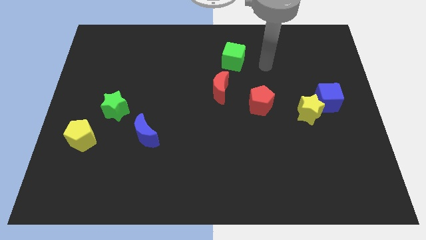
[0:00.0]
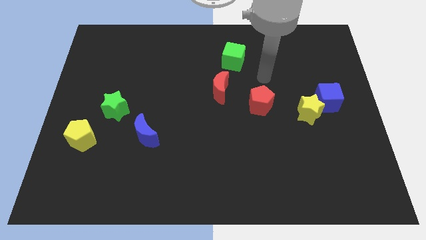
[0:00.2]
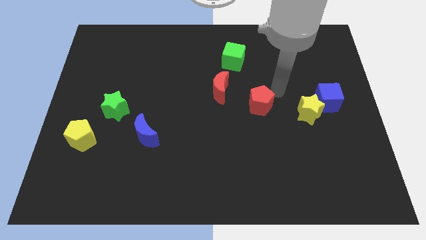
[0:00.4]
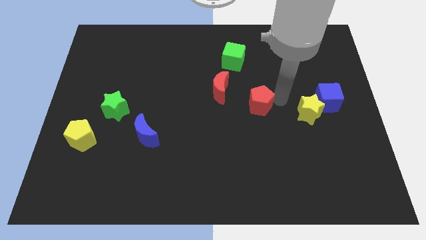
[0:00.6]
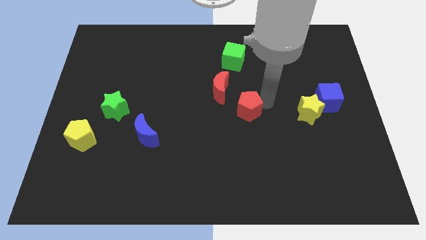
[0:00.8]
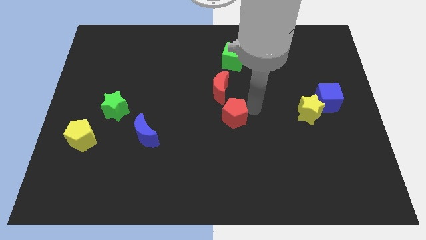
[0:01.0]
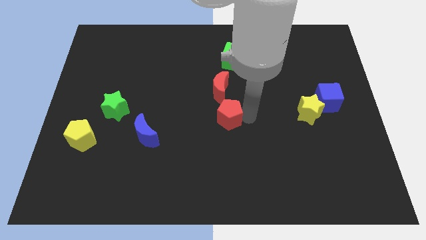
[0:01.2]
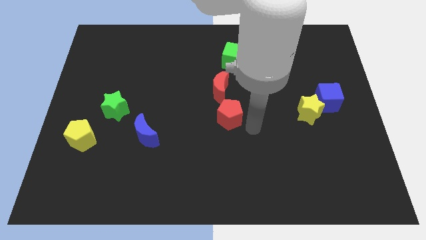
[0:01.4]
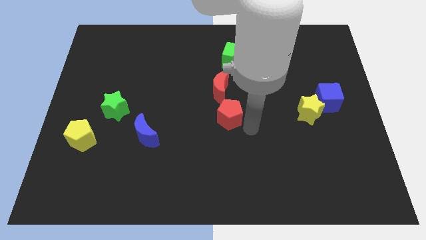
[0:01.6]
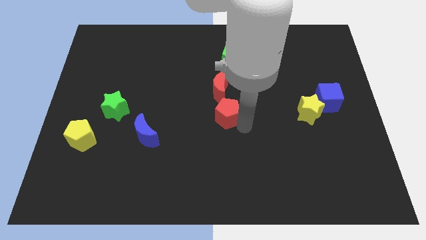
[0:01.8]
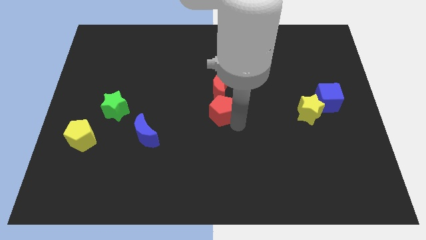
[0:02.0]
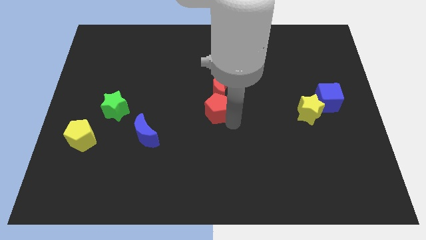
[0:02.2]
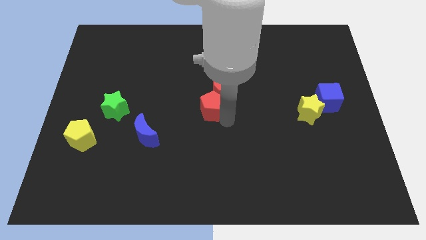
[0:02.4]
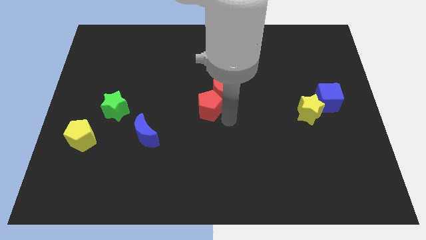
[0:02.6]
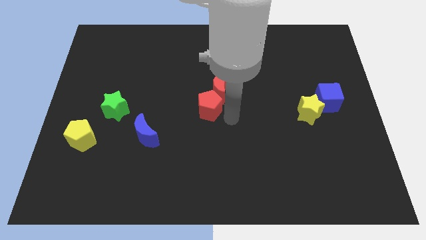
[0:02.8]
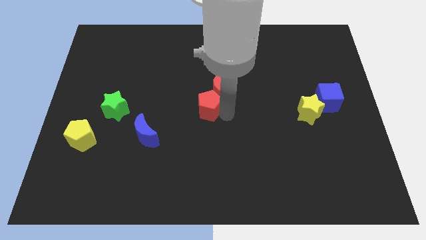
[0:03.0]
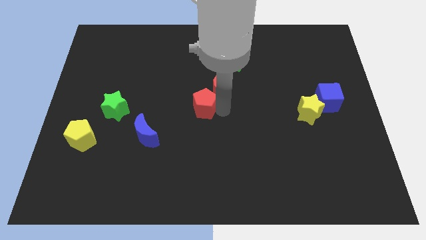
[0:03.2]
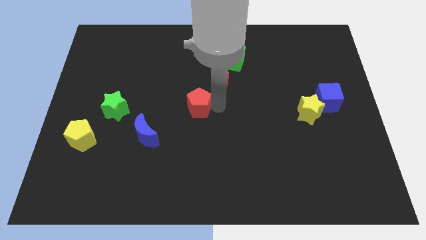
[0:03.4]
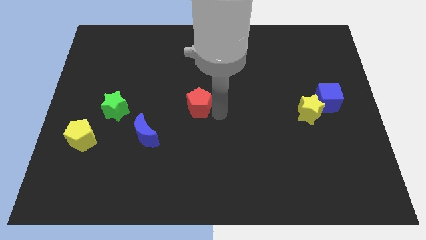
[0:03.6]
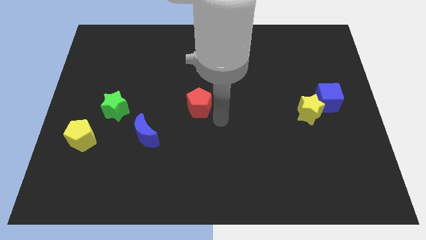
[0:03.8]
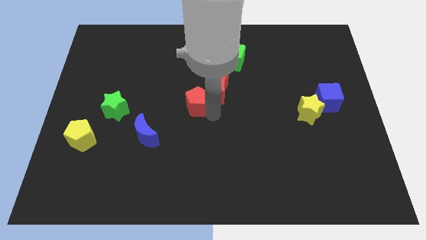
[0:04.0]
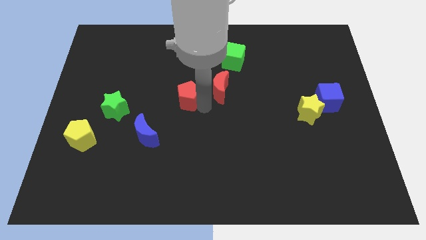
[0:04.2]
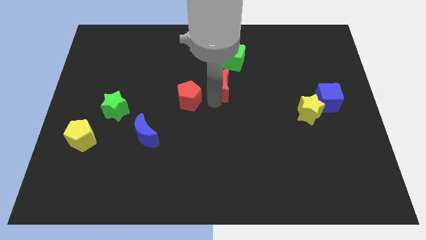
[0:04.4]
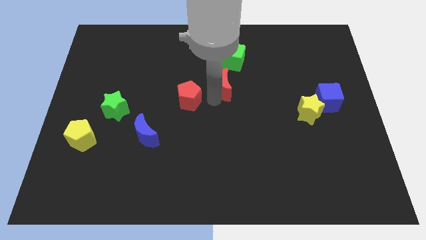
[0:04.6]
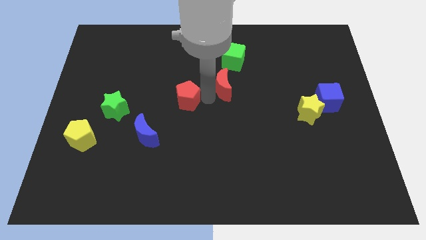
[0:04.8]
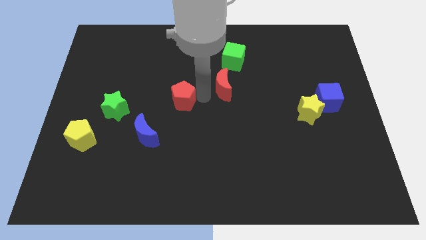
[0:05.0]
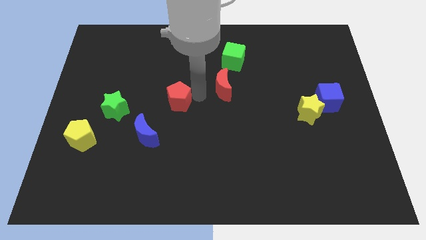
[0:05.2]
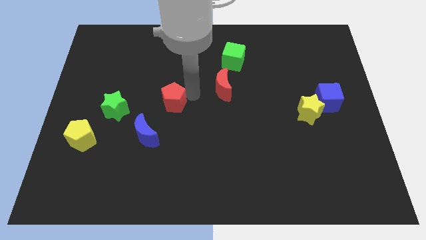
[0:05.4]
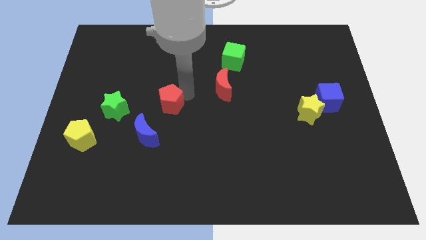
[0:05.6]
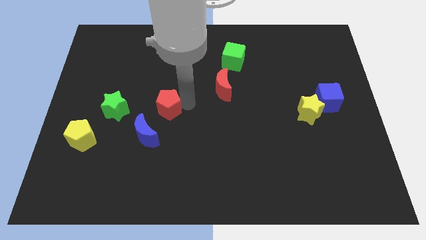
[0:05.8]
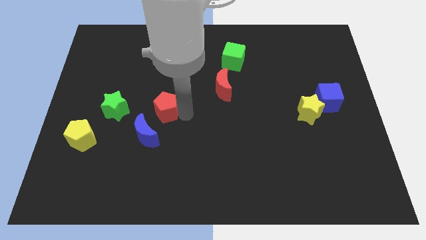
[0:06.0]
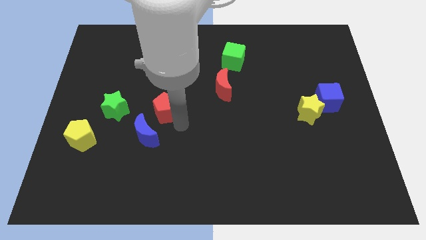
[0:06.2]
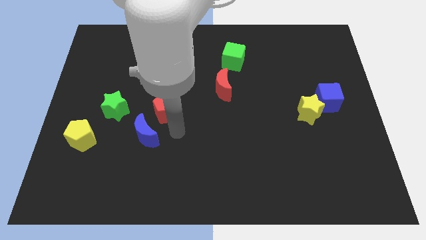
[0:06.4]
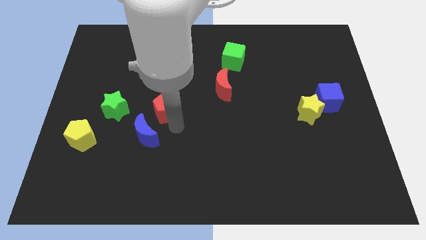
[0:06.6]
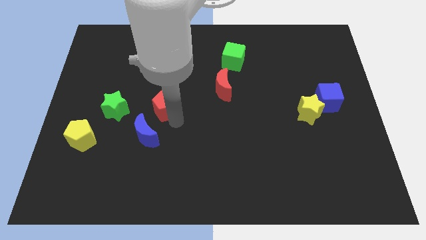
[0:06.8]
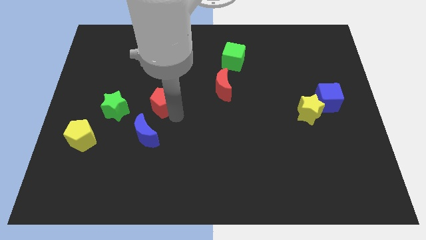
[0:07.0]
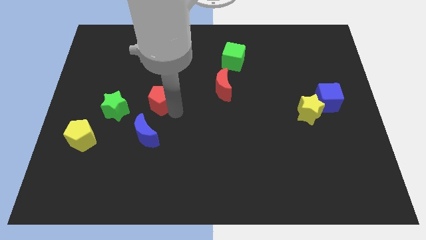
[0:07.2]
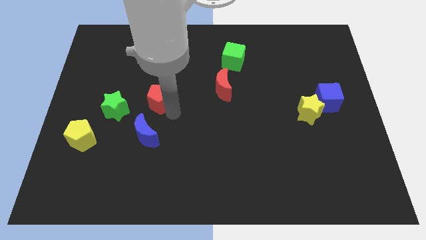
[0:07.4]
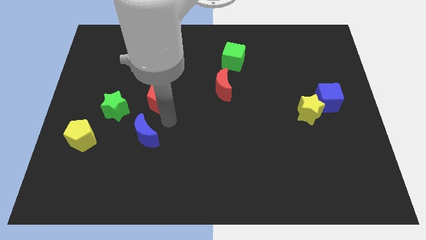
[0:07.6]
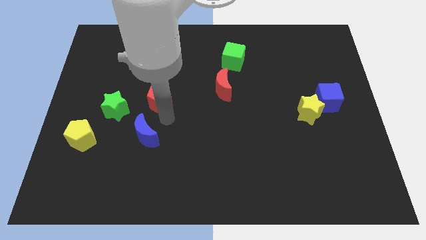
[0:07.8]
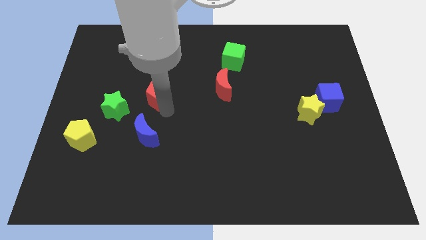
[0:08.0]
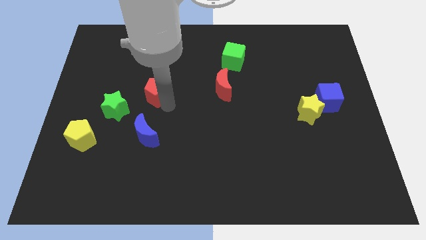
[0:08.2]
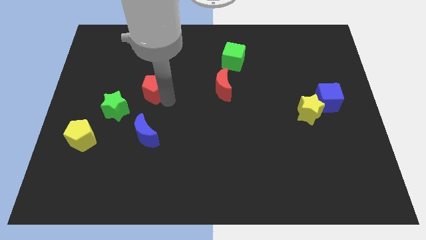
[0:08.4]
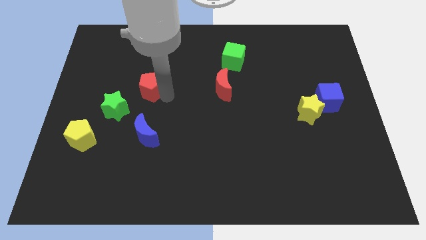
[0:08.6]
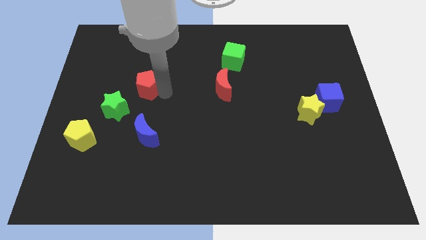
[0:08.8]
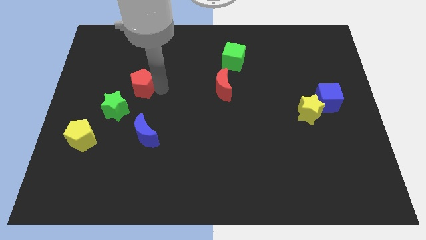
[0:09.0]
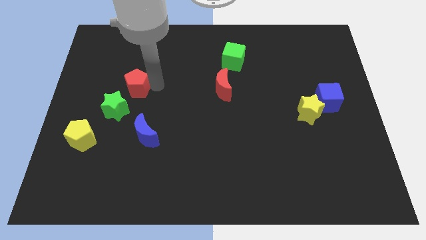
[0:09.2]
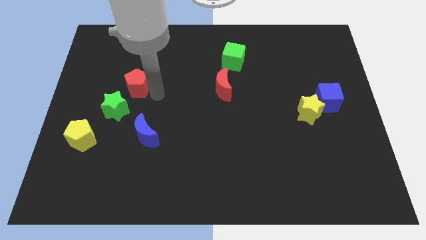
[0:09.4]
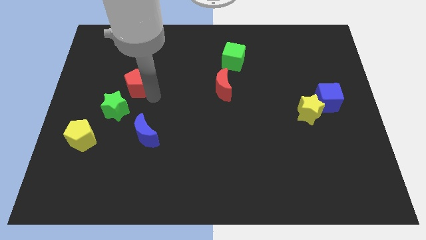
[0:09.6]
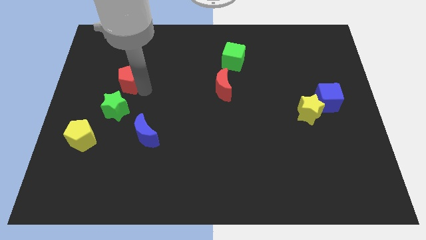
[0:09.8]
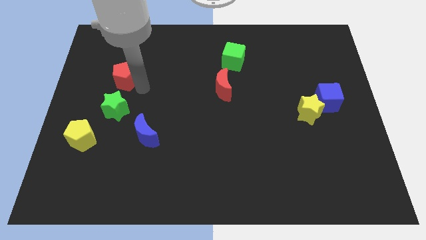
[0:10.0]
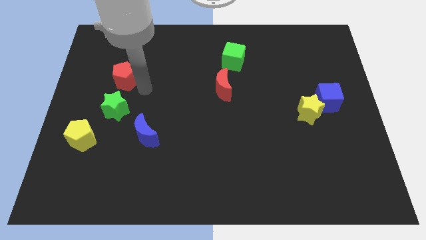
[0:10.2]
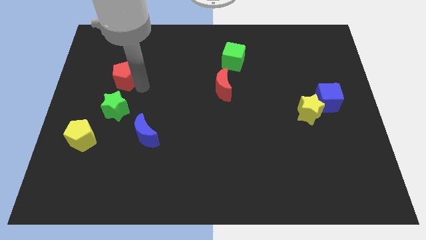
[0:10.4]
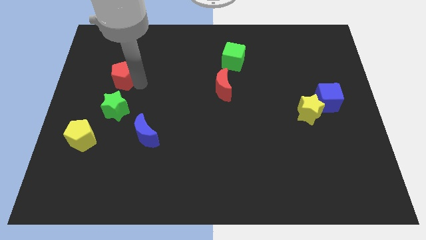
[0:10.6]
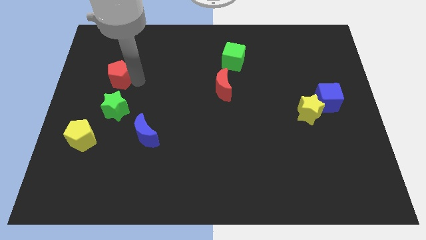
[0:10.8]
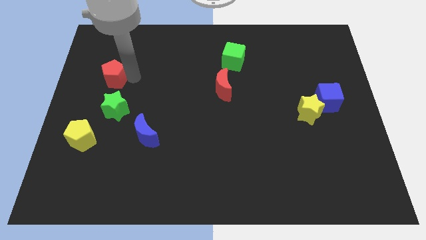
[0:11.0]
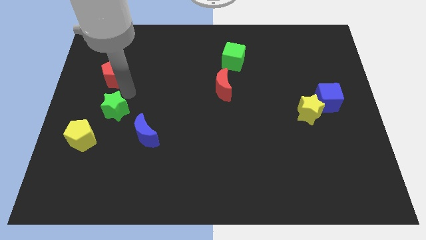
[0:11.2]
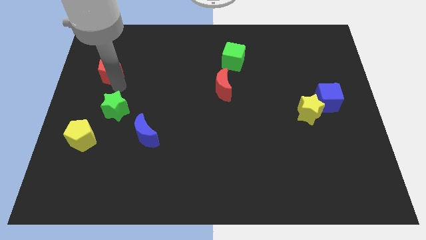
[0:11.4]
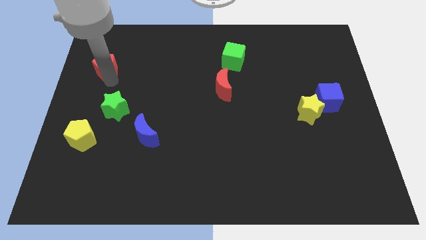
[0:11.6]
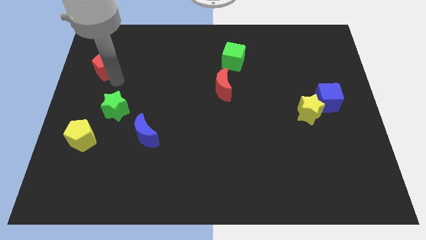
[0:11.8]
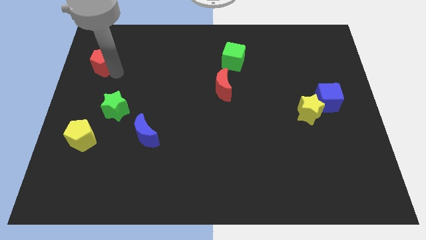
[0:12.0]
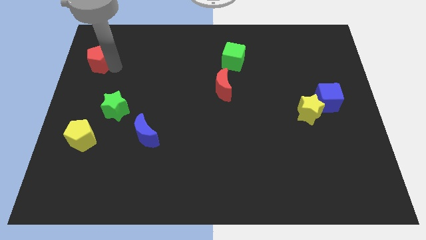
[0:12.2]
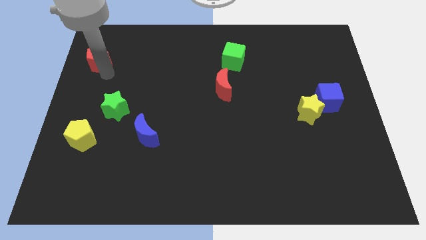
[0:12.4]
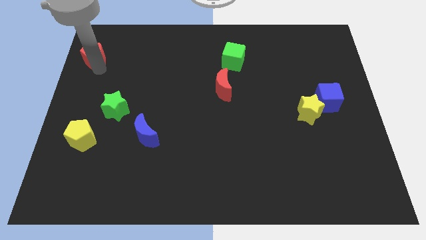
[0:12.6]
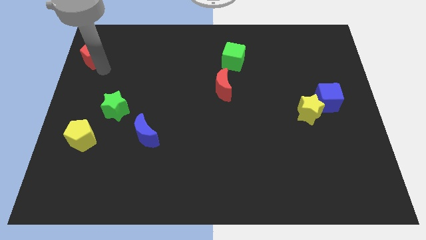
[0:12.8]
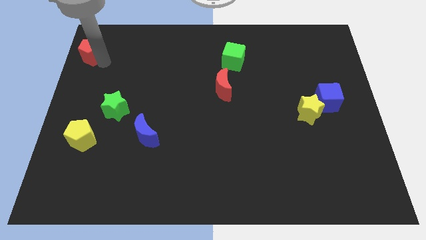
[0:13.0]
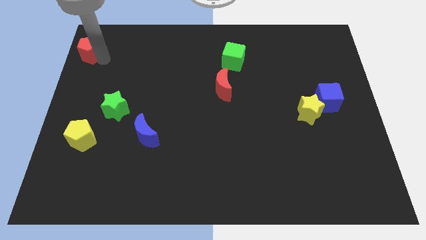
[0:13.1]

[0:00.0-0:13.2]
push the red pentagon to the top left of the board
